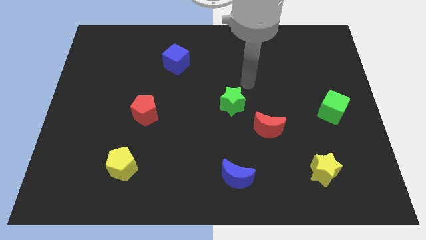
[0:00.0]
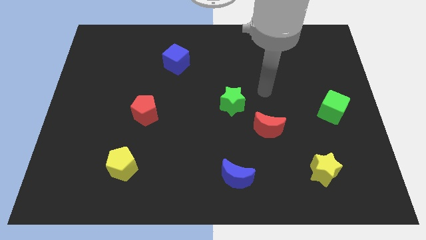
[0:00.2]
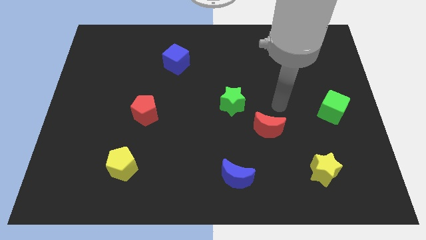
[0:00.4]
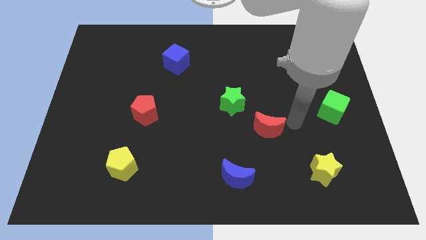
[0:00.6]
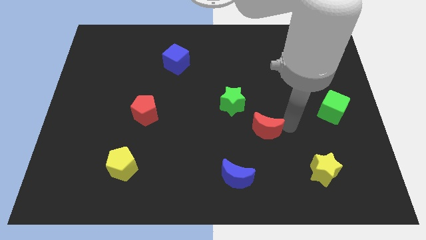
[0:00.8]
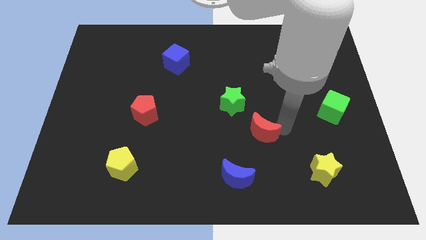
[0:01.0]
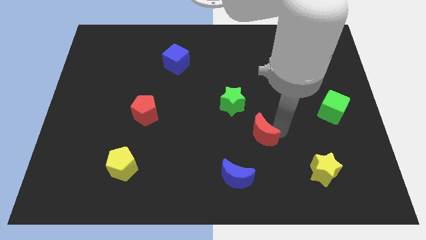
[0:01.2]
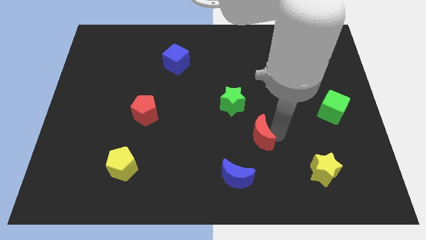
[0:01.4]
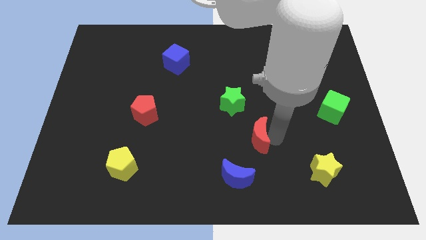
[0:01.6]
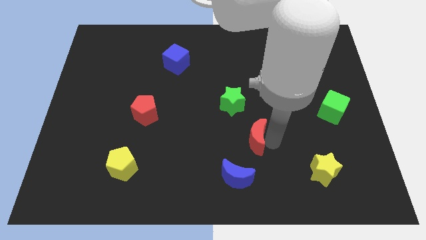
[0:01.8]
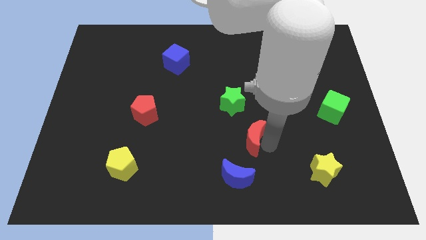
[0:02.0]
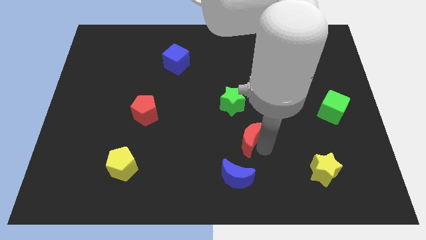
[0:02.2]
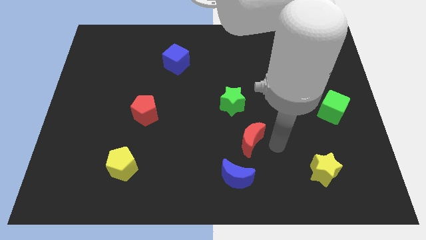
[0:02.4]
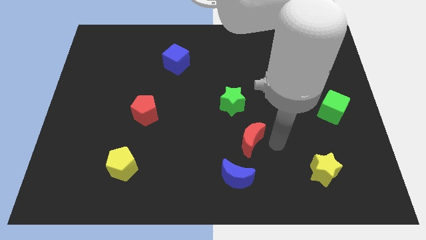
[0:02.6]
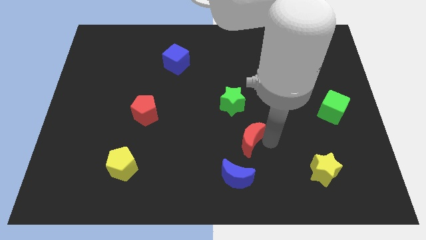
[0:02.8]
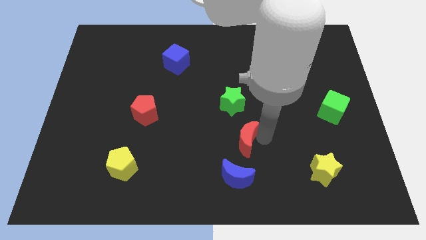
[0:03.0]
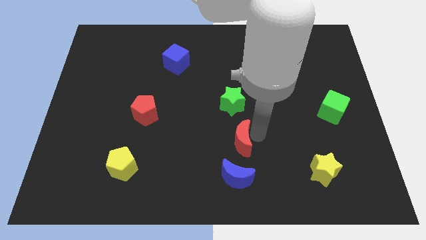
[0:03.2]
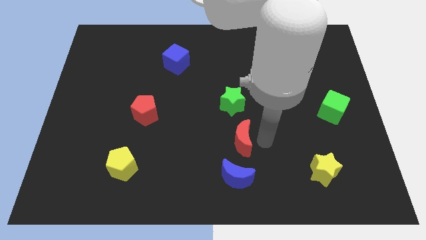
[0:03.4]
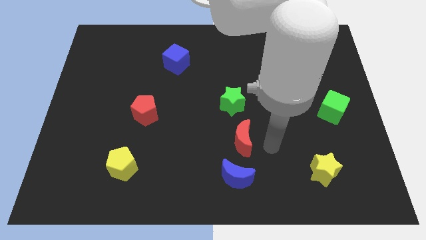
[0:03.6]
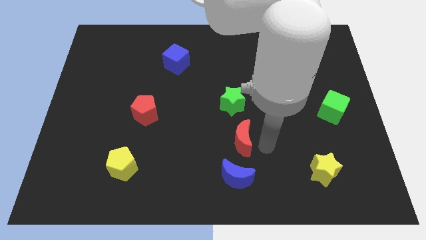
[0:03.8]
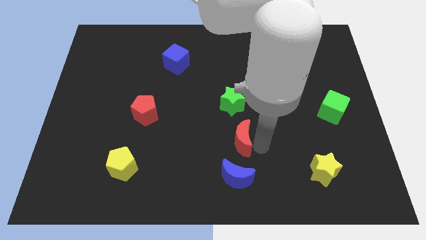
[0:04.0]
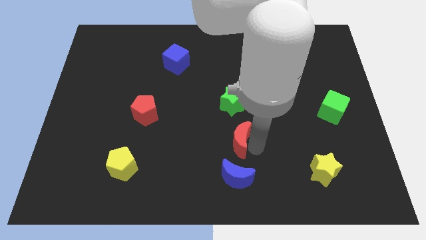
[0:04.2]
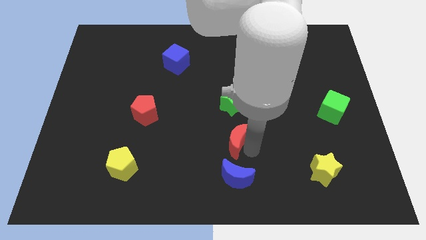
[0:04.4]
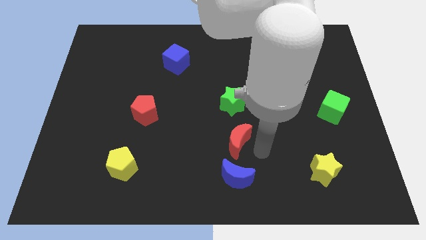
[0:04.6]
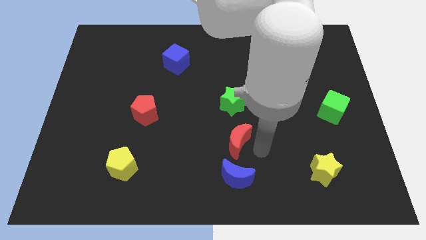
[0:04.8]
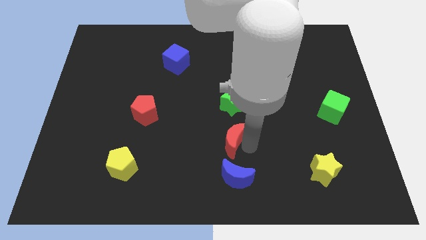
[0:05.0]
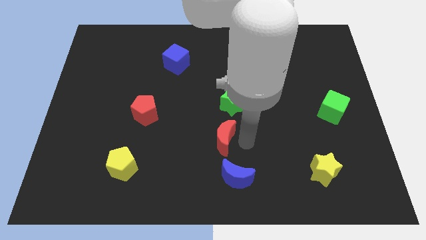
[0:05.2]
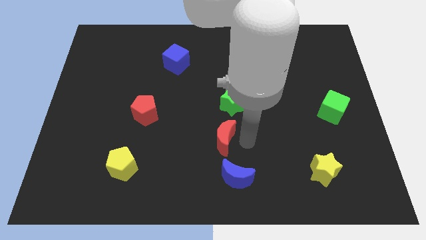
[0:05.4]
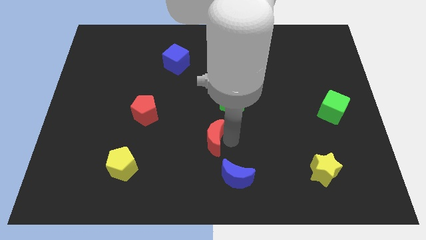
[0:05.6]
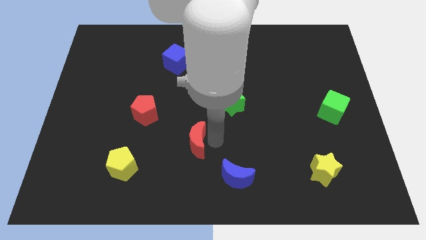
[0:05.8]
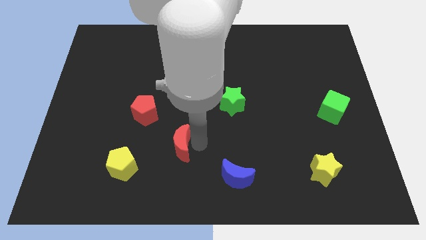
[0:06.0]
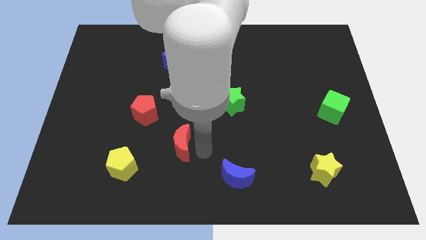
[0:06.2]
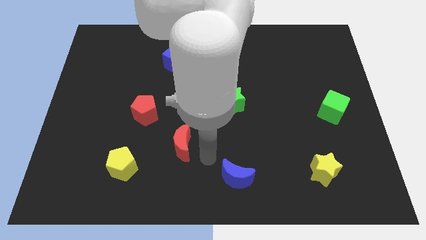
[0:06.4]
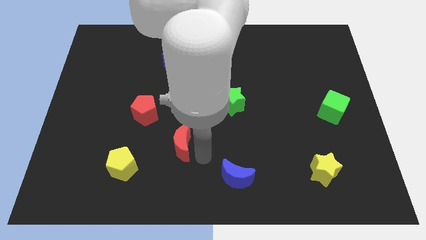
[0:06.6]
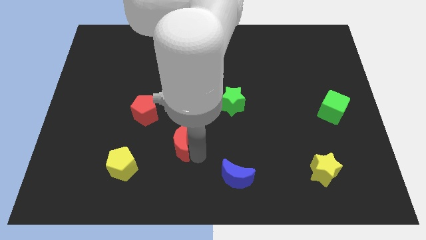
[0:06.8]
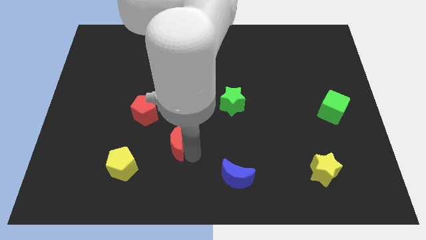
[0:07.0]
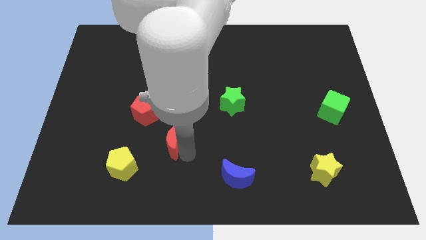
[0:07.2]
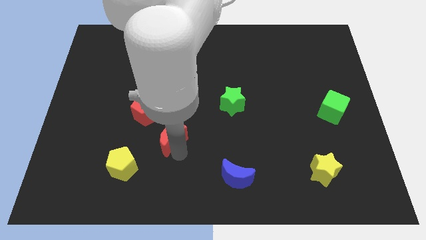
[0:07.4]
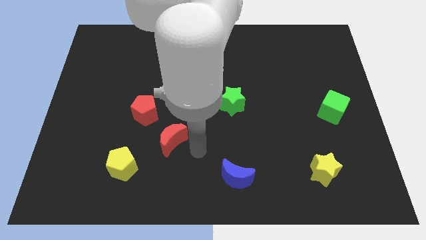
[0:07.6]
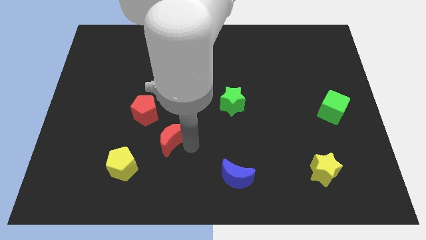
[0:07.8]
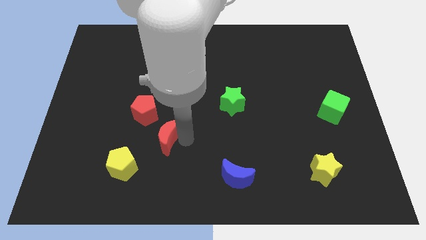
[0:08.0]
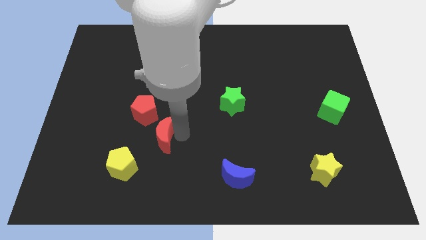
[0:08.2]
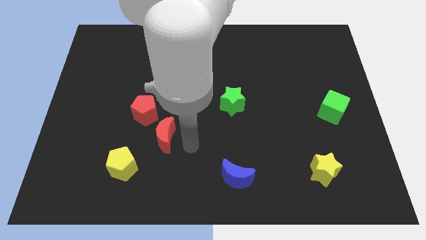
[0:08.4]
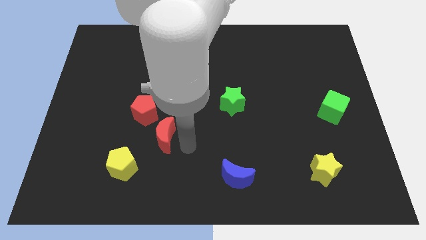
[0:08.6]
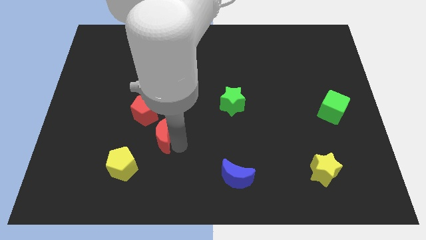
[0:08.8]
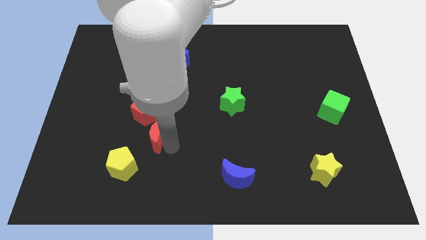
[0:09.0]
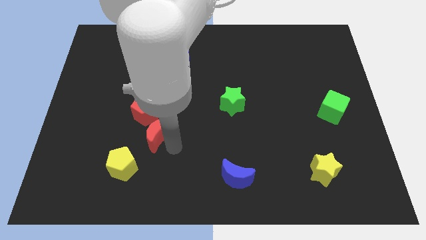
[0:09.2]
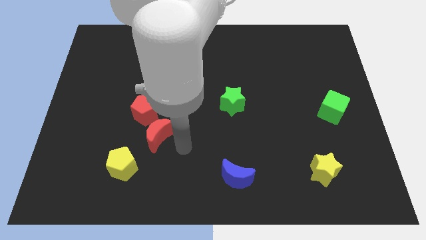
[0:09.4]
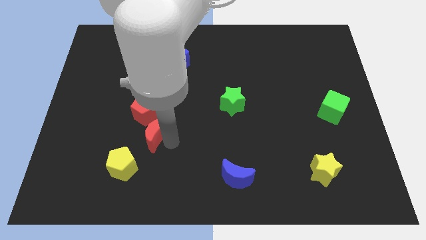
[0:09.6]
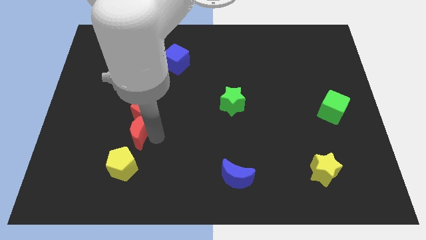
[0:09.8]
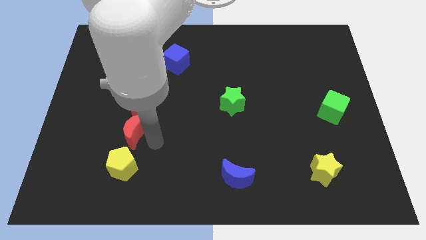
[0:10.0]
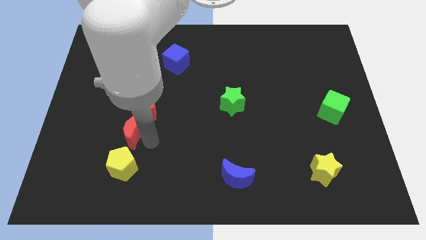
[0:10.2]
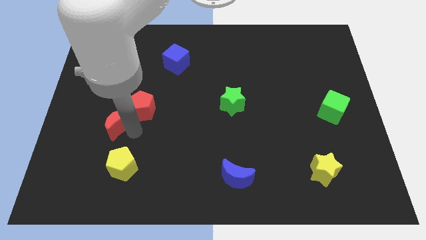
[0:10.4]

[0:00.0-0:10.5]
put the red moon just left of the red pentagon

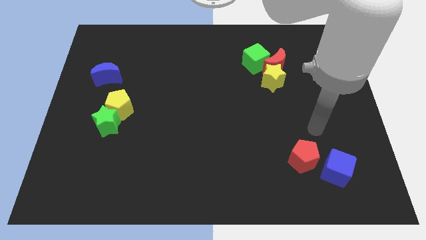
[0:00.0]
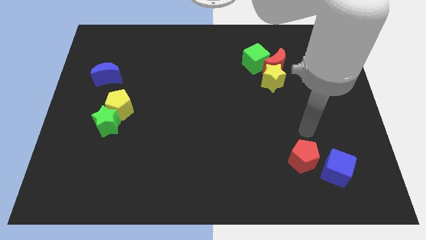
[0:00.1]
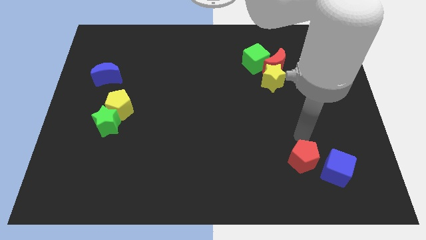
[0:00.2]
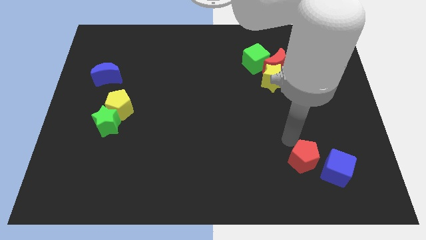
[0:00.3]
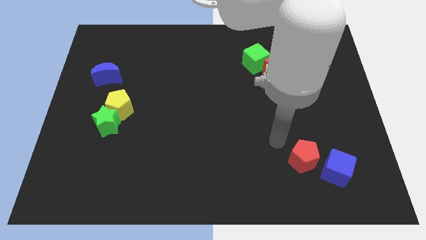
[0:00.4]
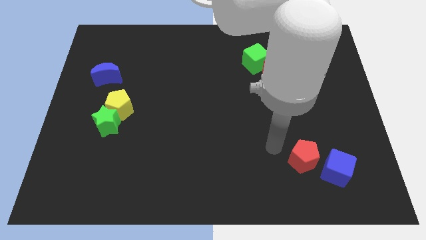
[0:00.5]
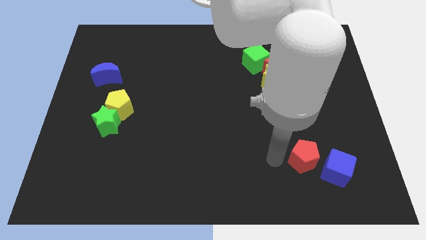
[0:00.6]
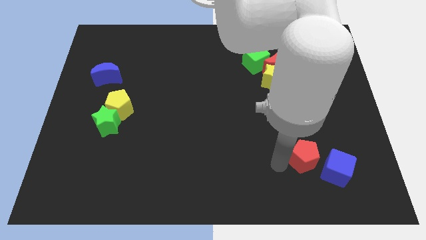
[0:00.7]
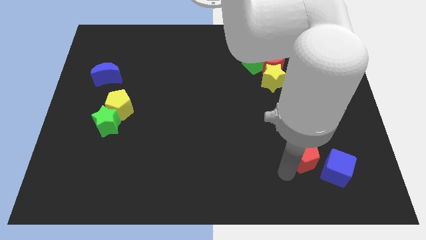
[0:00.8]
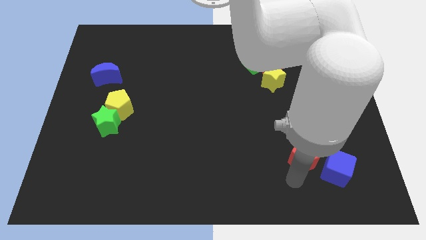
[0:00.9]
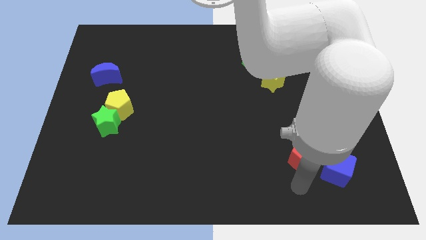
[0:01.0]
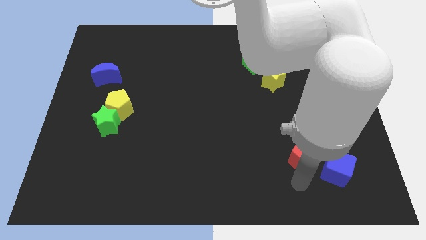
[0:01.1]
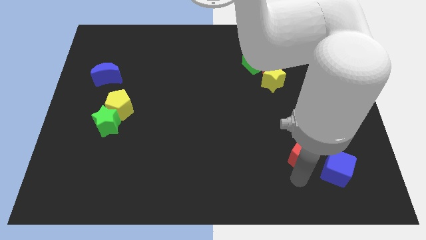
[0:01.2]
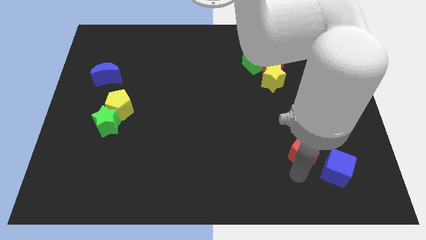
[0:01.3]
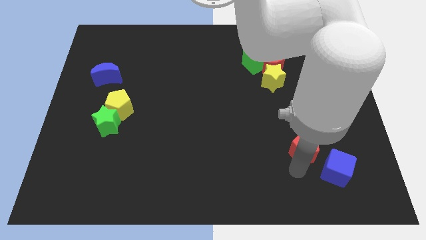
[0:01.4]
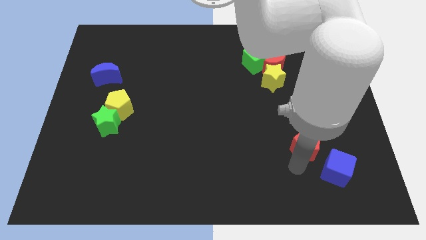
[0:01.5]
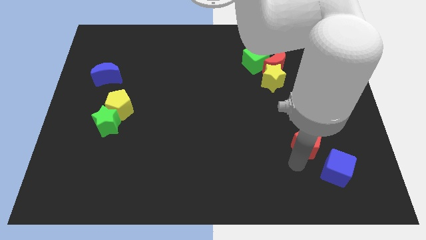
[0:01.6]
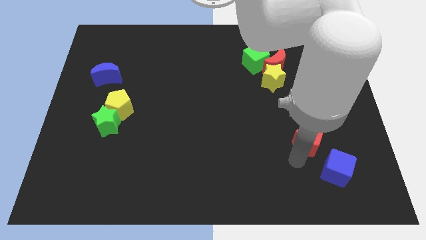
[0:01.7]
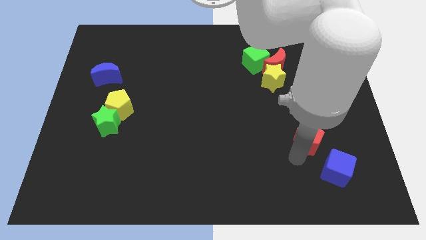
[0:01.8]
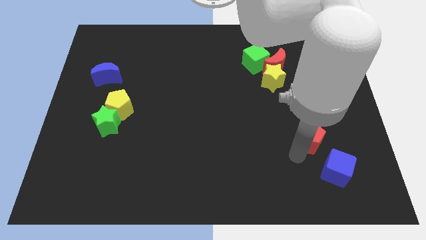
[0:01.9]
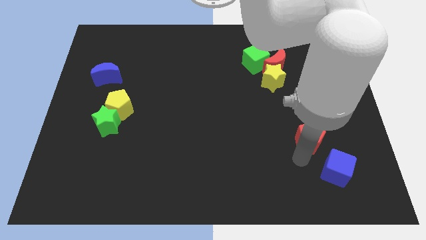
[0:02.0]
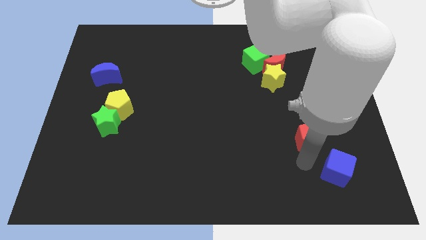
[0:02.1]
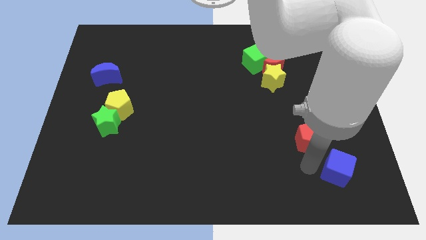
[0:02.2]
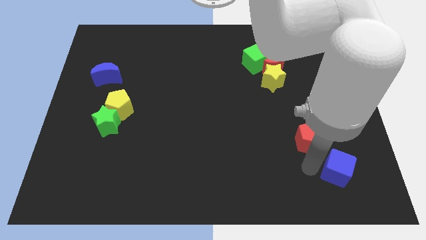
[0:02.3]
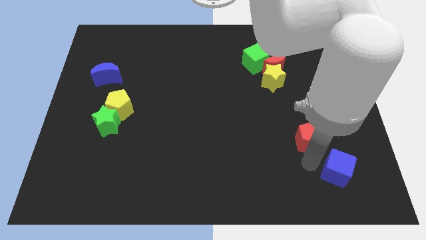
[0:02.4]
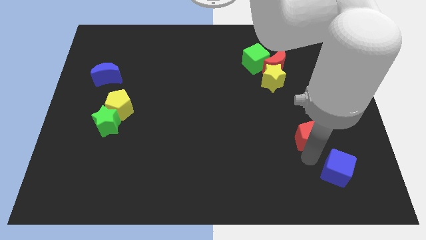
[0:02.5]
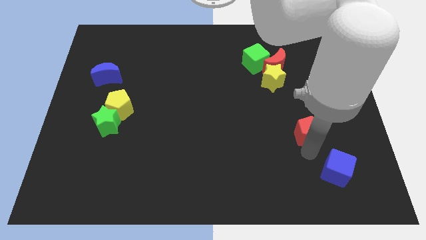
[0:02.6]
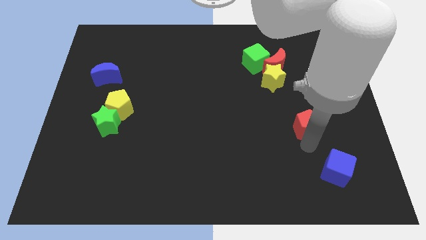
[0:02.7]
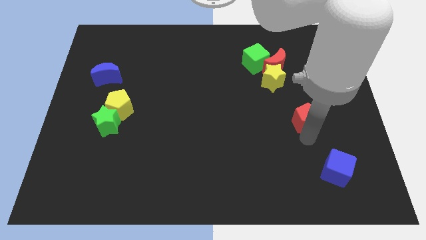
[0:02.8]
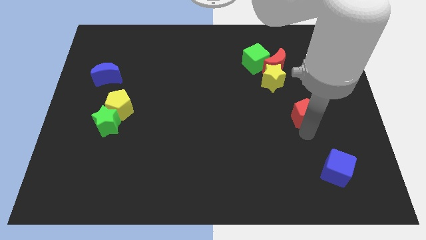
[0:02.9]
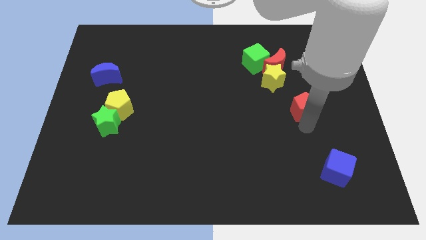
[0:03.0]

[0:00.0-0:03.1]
slide the red pentagon to the bottom right of the yellow star
